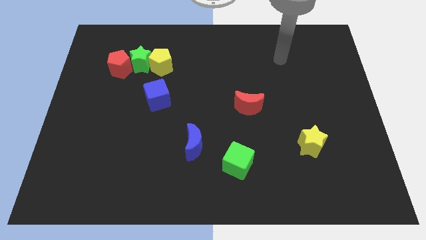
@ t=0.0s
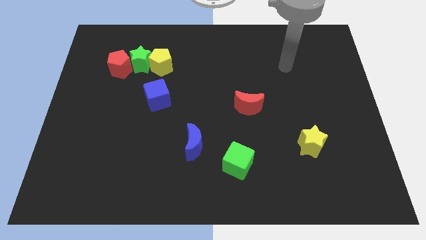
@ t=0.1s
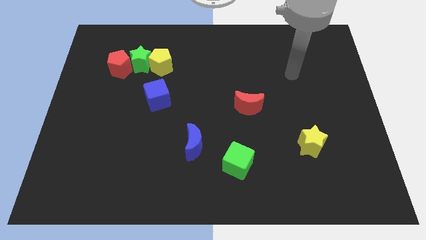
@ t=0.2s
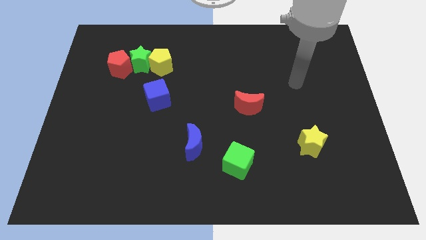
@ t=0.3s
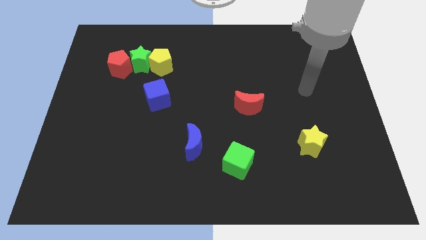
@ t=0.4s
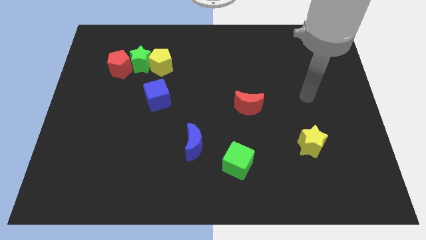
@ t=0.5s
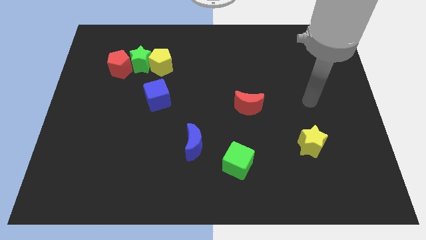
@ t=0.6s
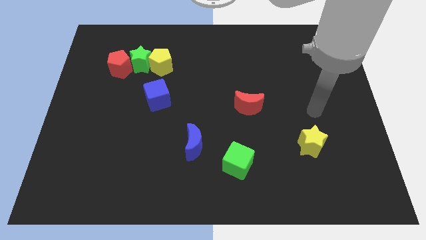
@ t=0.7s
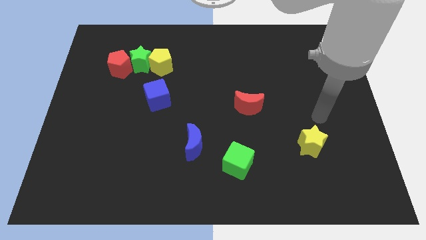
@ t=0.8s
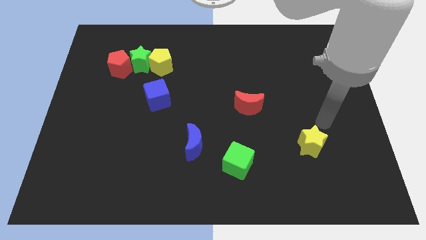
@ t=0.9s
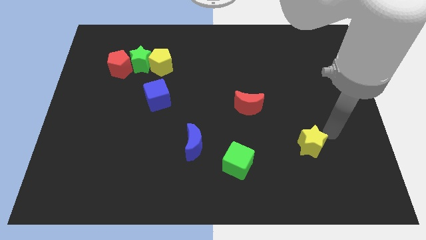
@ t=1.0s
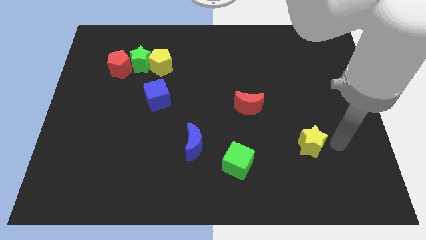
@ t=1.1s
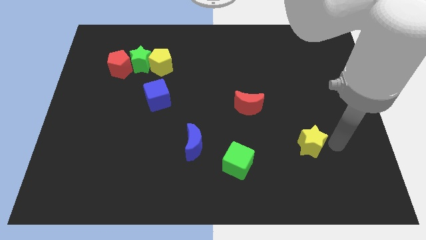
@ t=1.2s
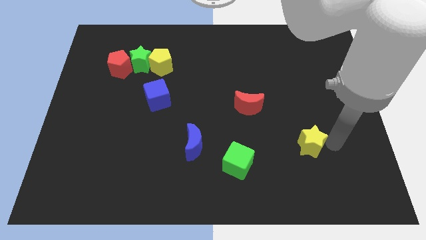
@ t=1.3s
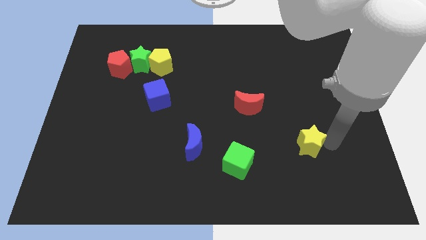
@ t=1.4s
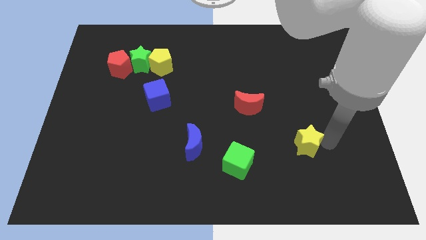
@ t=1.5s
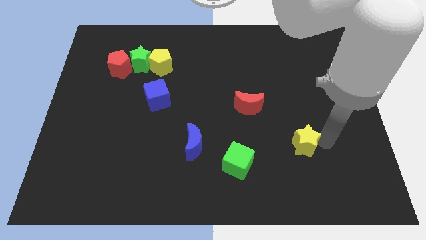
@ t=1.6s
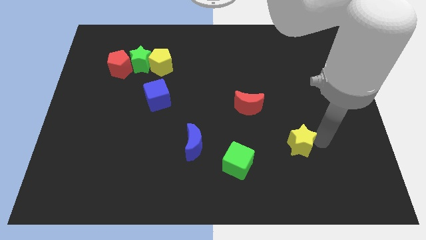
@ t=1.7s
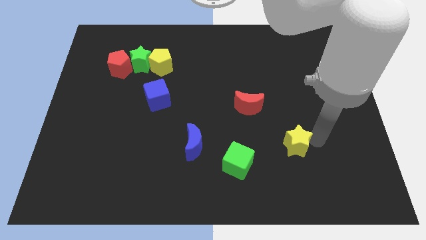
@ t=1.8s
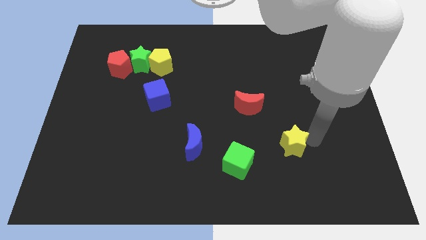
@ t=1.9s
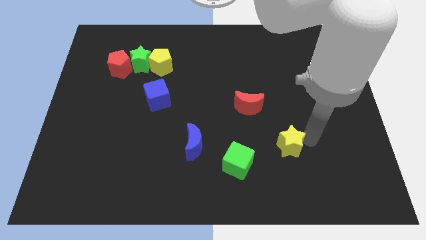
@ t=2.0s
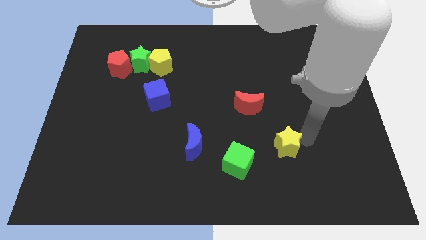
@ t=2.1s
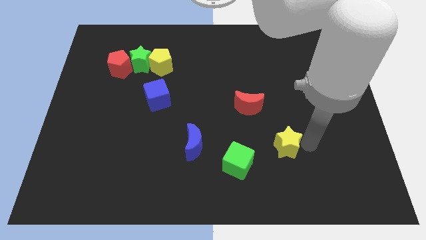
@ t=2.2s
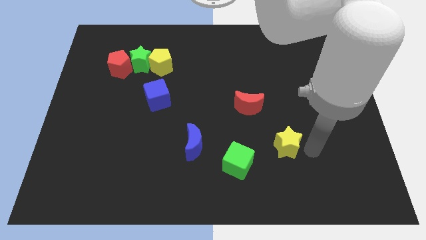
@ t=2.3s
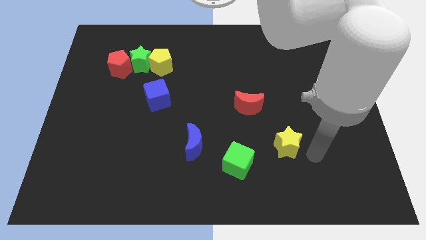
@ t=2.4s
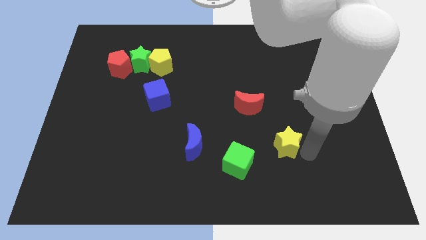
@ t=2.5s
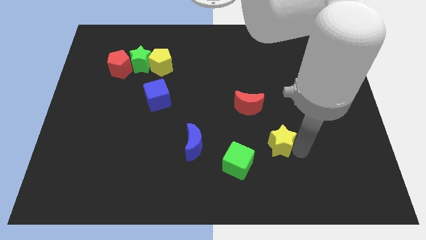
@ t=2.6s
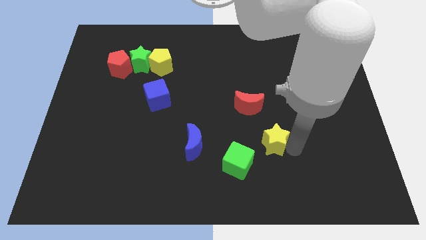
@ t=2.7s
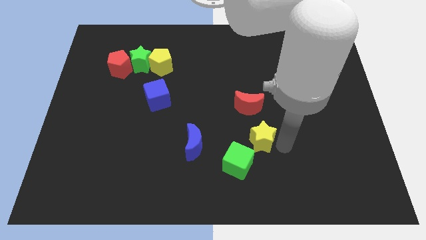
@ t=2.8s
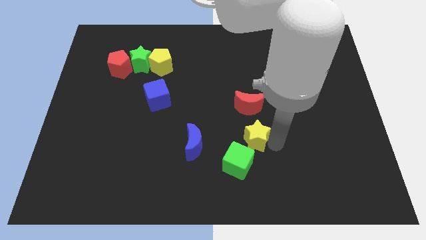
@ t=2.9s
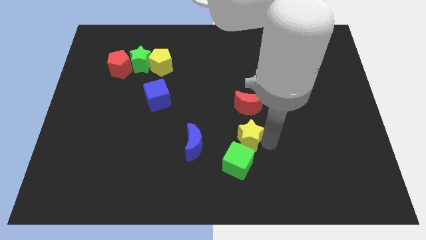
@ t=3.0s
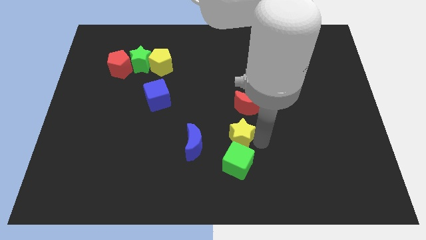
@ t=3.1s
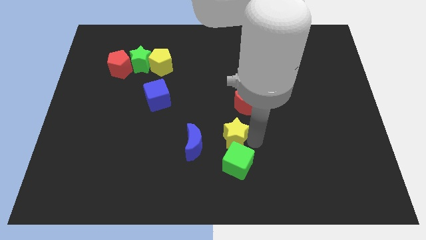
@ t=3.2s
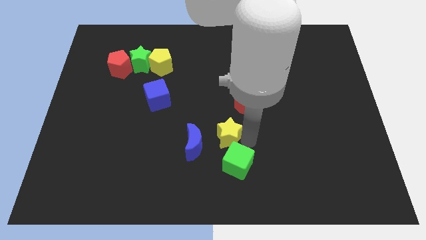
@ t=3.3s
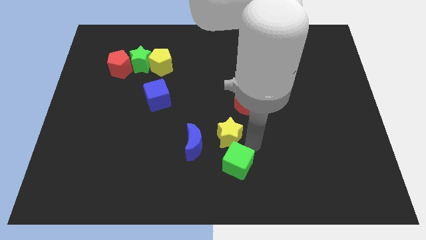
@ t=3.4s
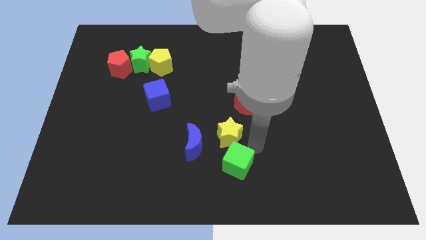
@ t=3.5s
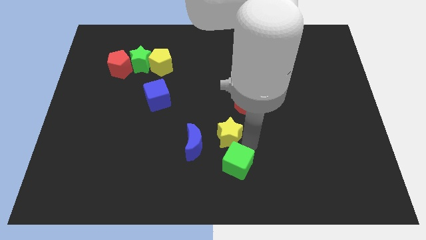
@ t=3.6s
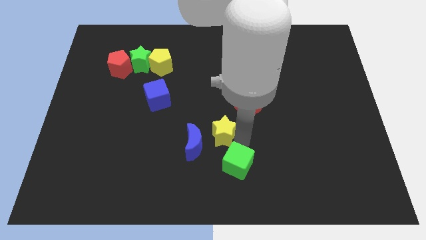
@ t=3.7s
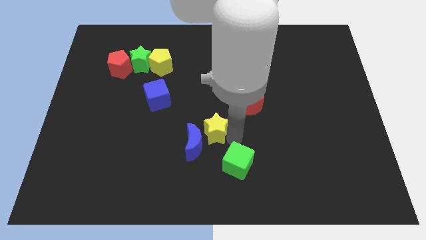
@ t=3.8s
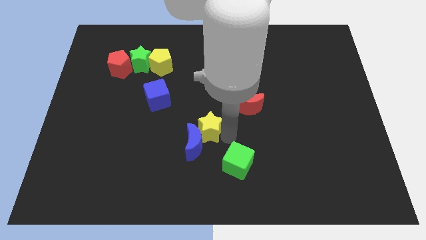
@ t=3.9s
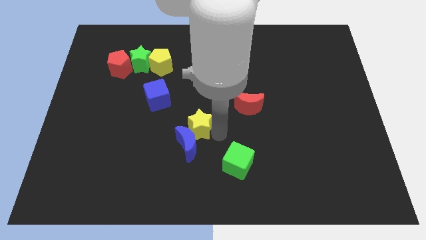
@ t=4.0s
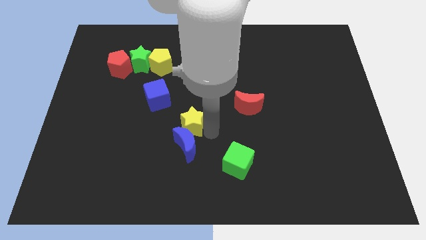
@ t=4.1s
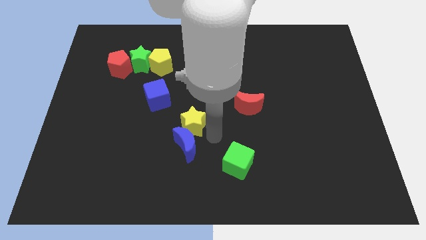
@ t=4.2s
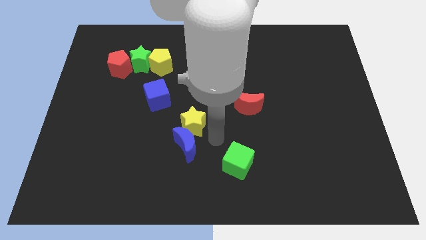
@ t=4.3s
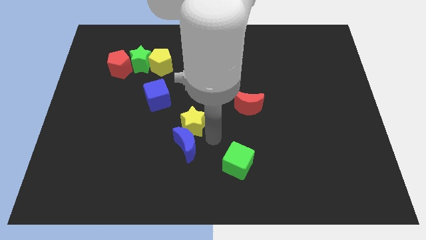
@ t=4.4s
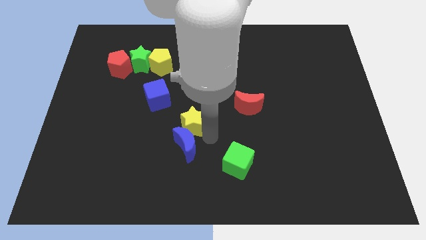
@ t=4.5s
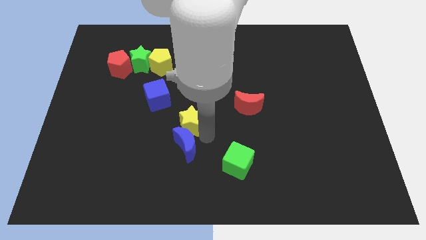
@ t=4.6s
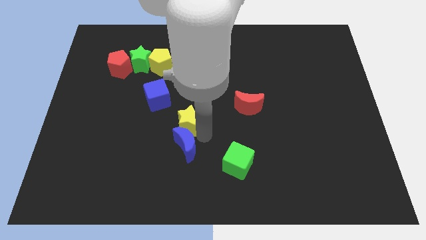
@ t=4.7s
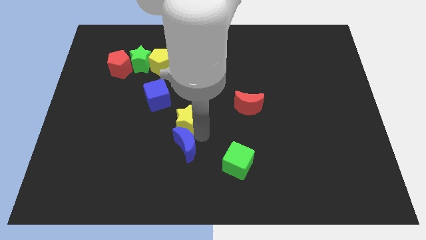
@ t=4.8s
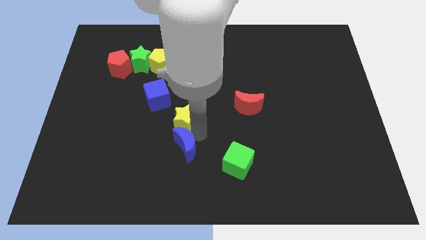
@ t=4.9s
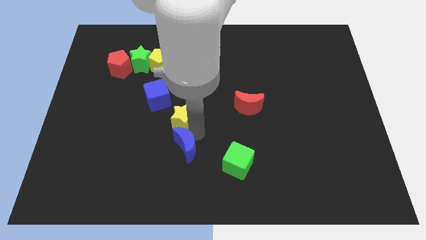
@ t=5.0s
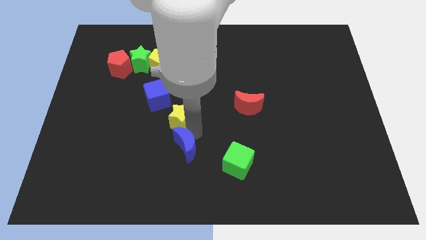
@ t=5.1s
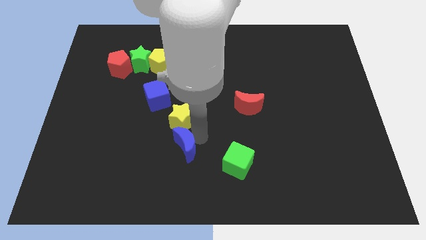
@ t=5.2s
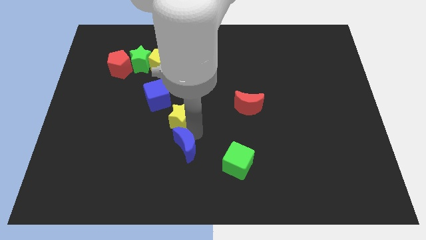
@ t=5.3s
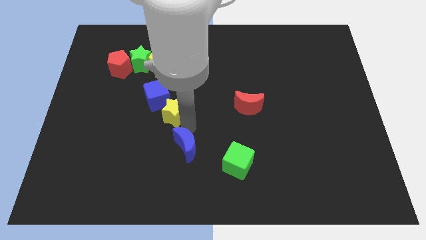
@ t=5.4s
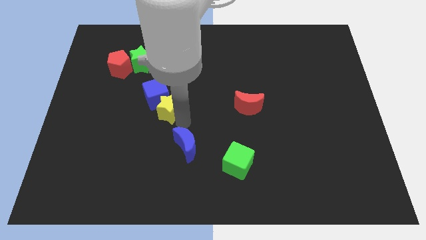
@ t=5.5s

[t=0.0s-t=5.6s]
put the yellow star next to the blue cube
